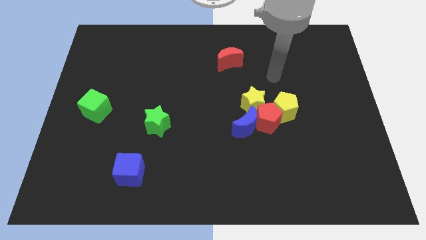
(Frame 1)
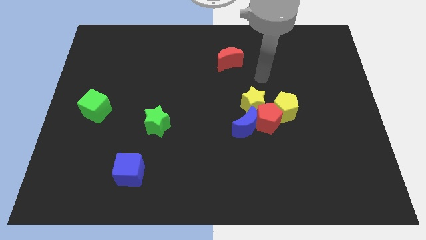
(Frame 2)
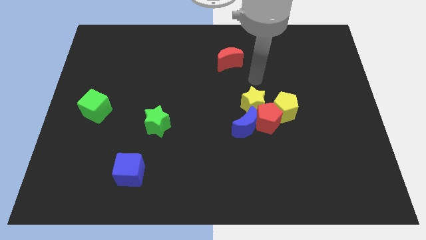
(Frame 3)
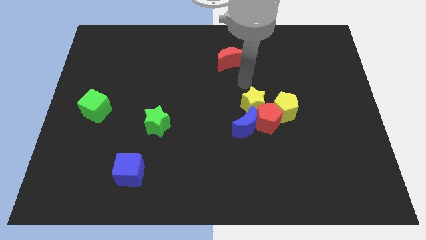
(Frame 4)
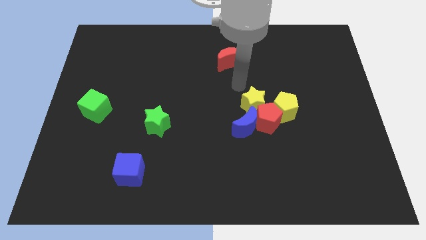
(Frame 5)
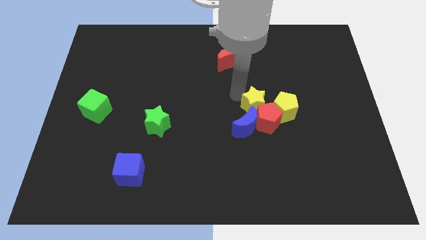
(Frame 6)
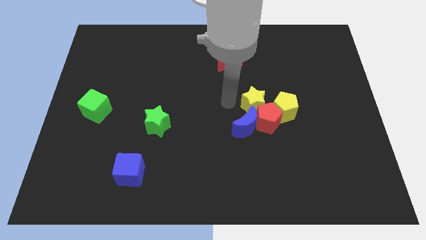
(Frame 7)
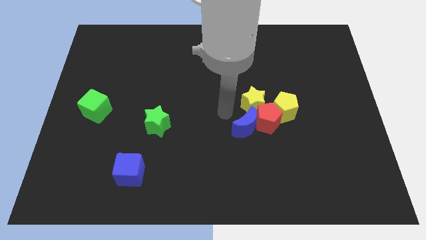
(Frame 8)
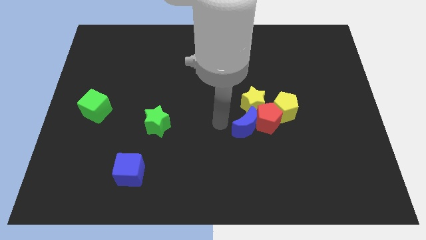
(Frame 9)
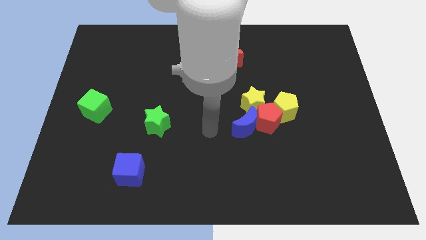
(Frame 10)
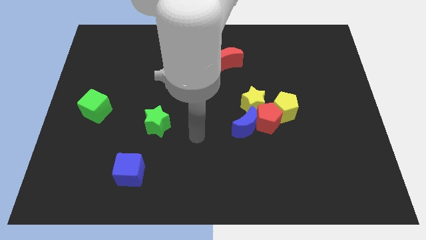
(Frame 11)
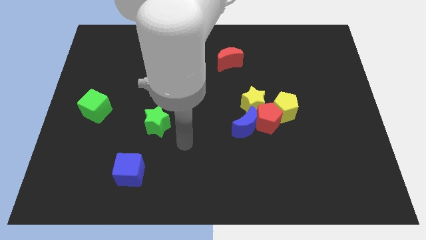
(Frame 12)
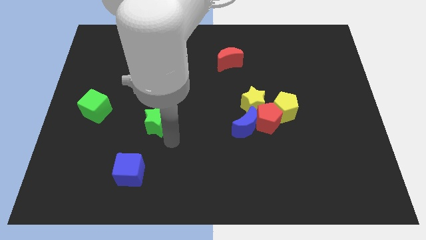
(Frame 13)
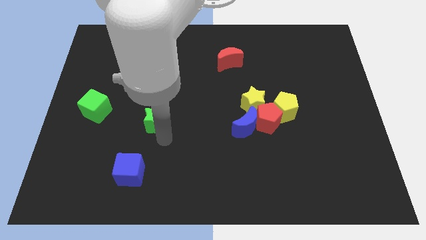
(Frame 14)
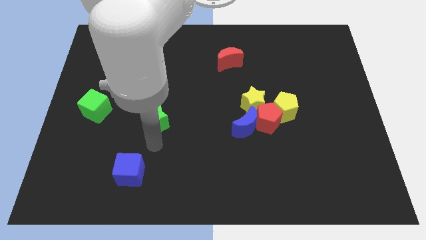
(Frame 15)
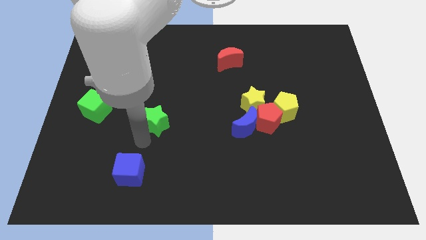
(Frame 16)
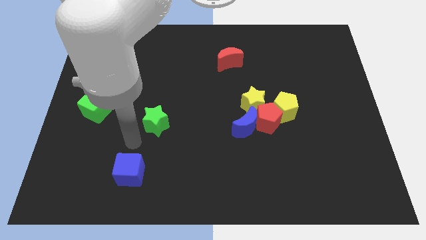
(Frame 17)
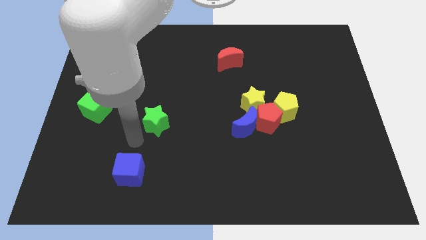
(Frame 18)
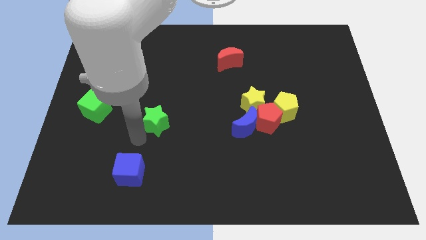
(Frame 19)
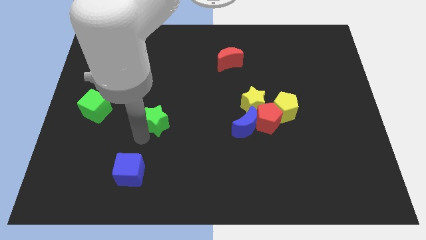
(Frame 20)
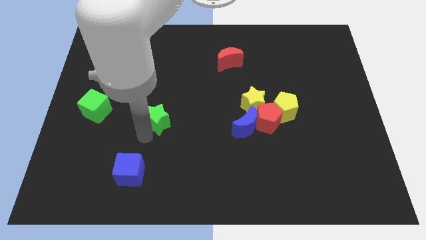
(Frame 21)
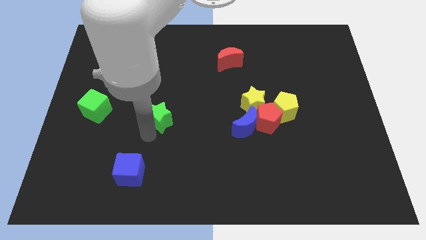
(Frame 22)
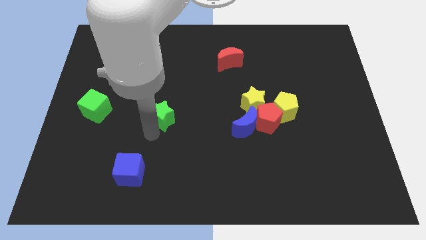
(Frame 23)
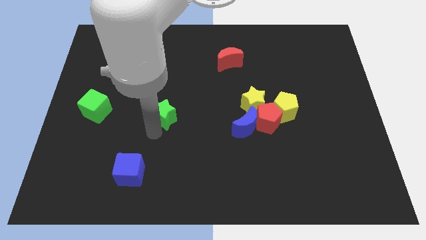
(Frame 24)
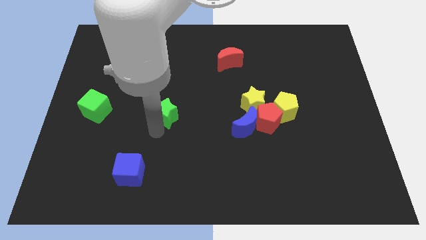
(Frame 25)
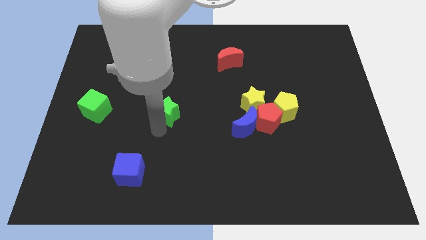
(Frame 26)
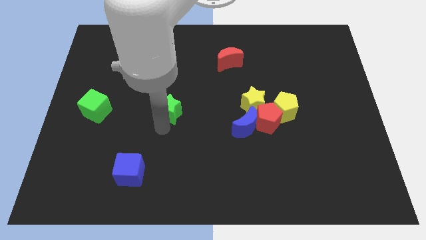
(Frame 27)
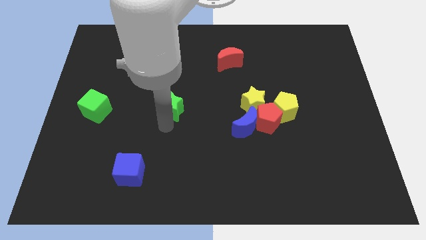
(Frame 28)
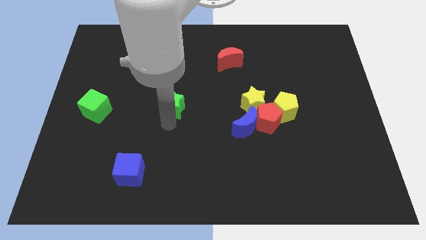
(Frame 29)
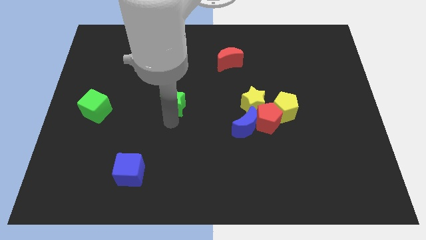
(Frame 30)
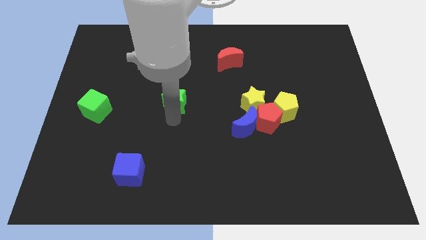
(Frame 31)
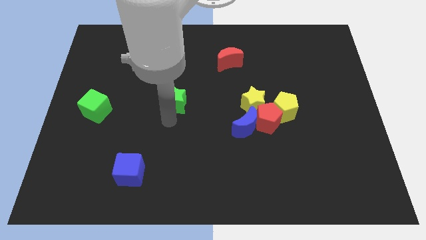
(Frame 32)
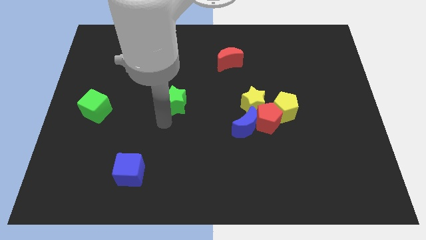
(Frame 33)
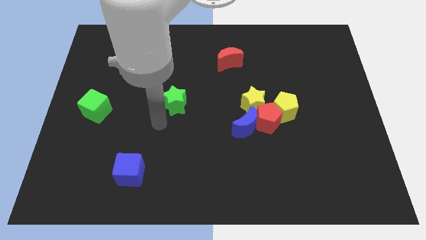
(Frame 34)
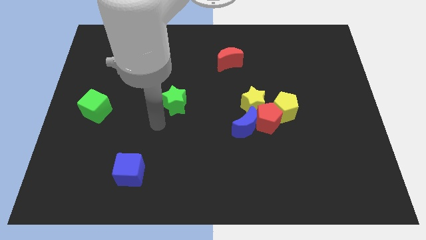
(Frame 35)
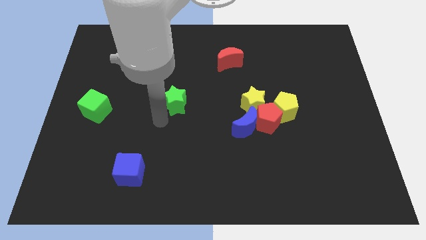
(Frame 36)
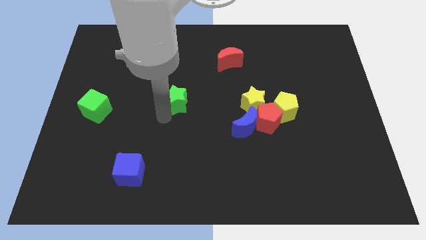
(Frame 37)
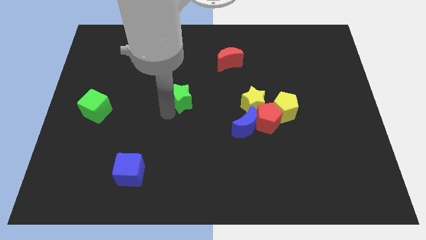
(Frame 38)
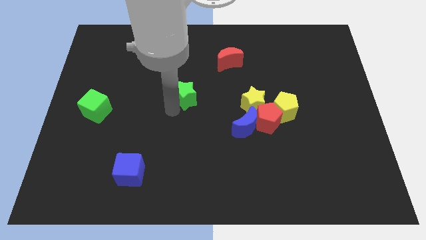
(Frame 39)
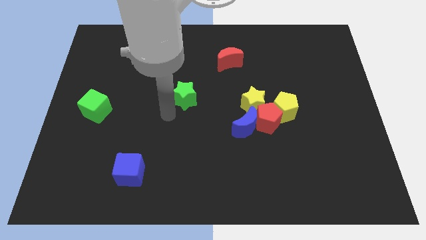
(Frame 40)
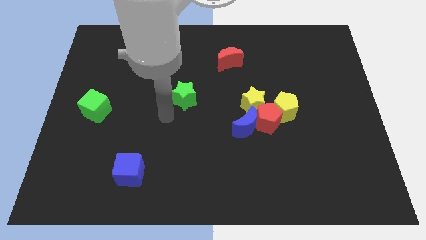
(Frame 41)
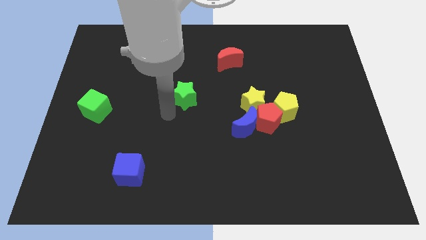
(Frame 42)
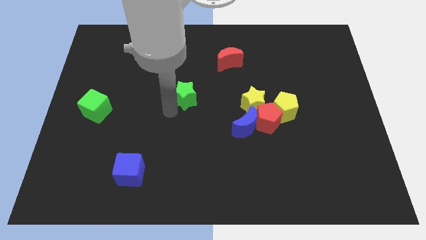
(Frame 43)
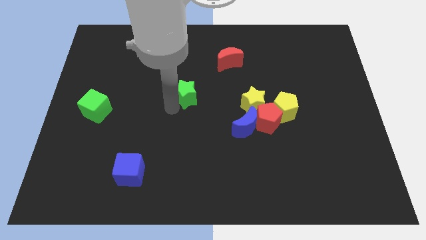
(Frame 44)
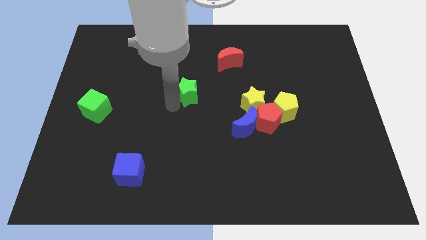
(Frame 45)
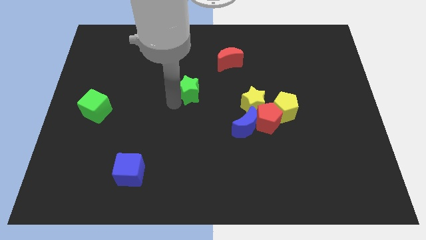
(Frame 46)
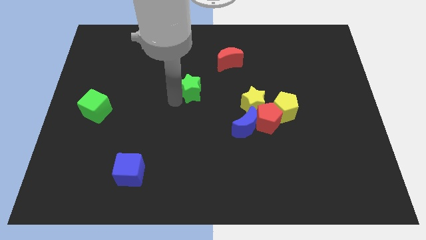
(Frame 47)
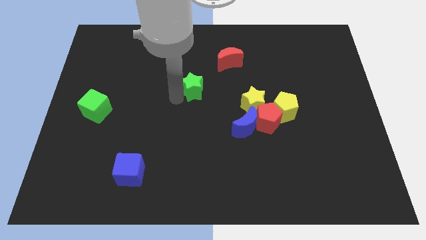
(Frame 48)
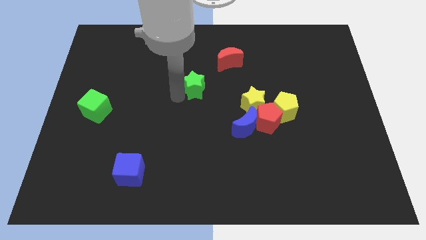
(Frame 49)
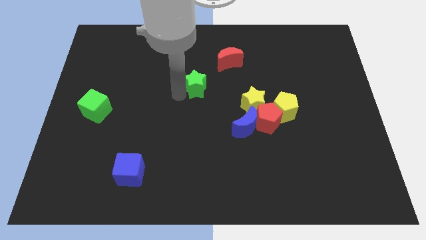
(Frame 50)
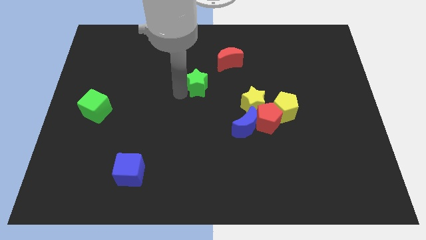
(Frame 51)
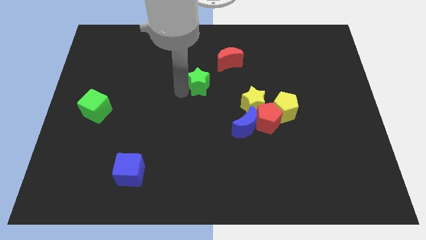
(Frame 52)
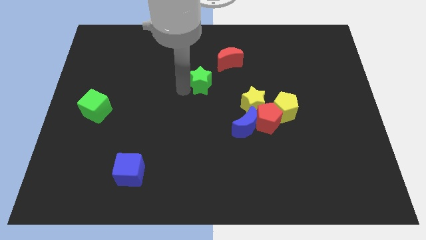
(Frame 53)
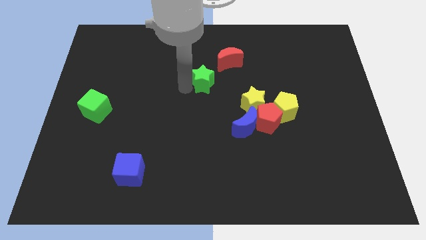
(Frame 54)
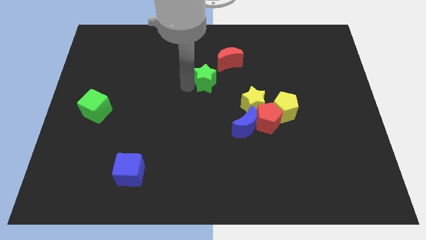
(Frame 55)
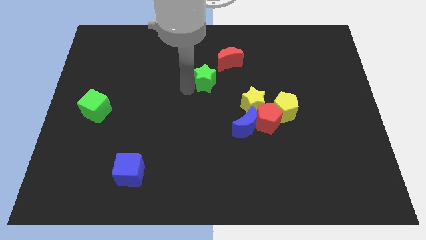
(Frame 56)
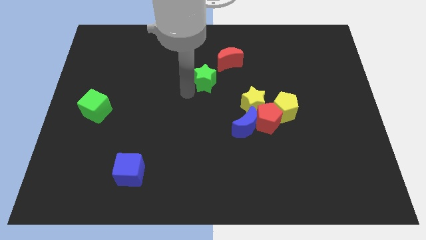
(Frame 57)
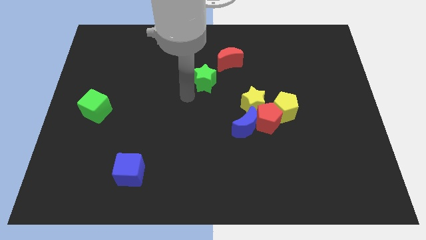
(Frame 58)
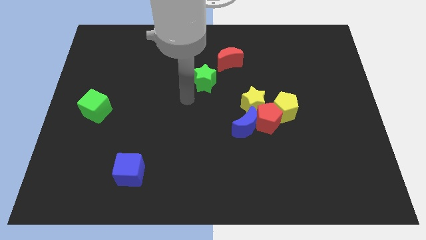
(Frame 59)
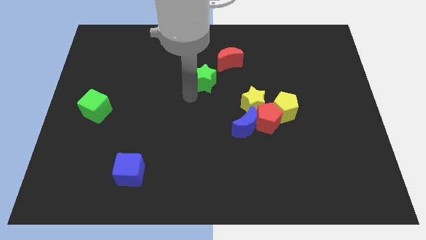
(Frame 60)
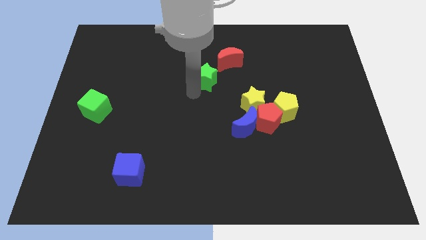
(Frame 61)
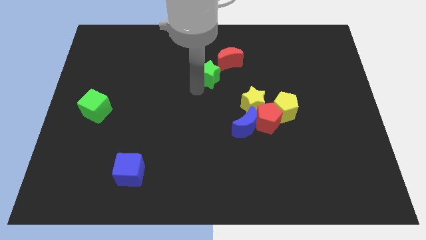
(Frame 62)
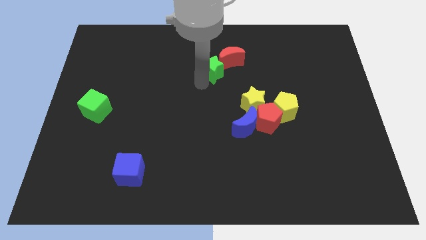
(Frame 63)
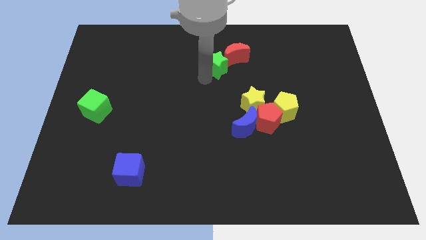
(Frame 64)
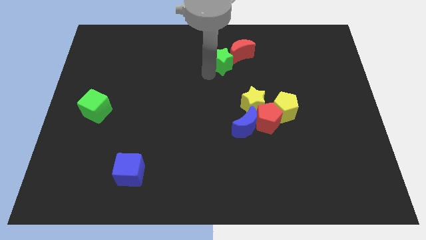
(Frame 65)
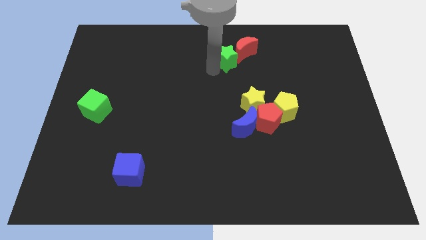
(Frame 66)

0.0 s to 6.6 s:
move the green star close to the red moon

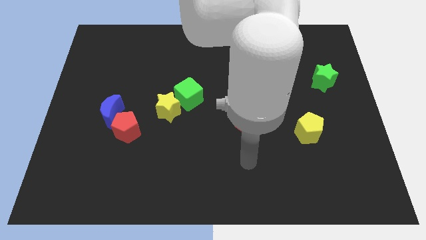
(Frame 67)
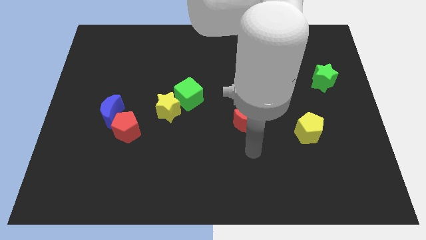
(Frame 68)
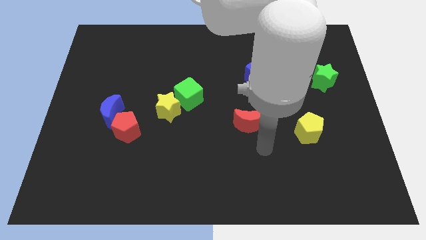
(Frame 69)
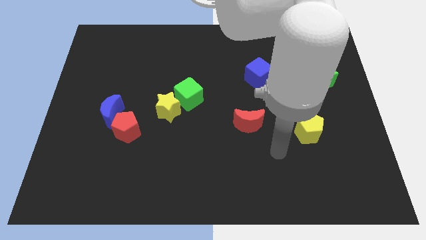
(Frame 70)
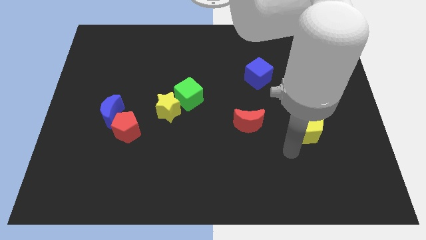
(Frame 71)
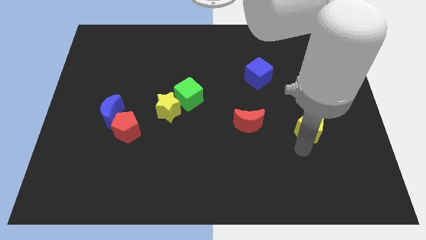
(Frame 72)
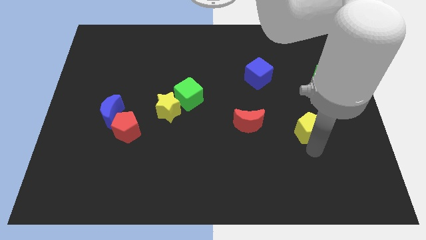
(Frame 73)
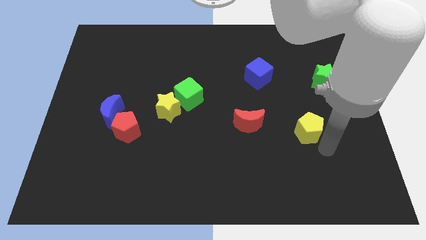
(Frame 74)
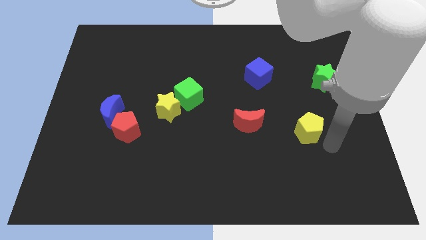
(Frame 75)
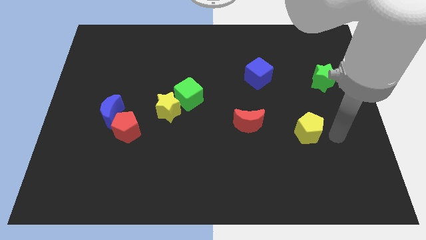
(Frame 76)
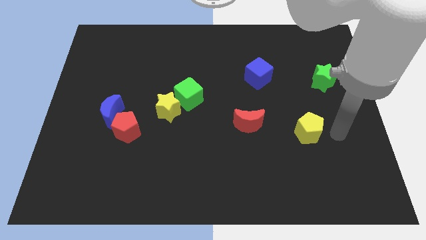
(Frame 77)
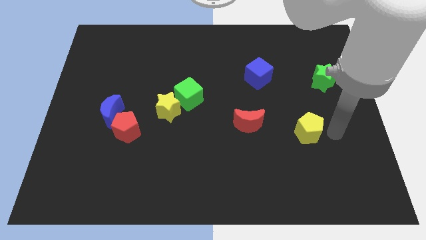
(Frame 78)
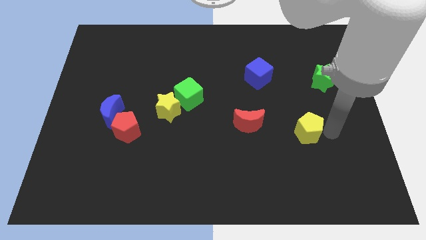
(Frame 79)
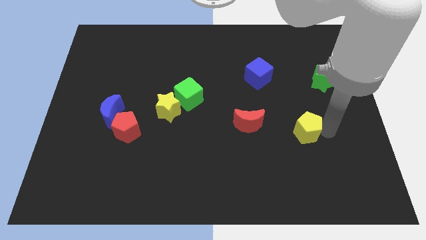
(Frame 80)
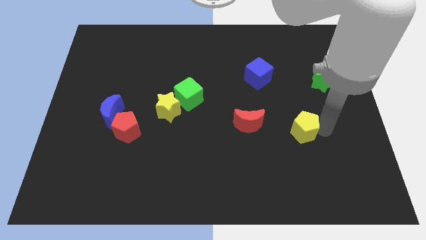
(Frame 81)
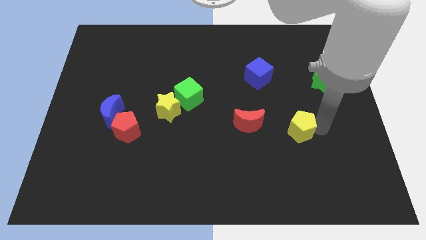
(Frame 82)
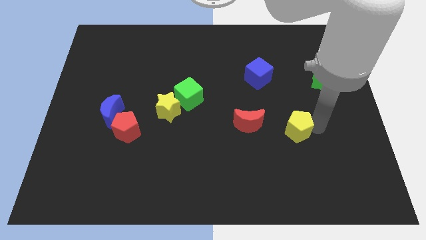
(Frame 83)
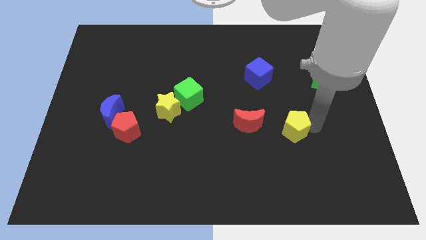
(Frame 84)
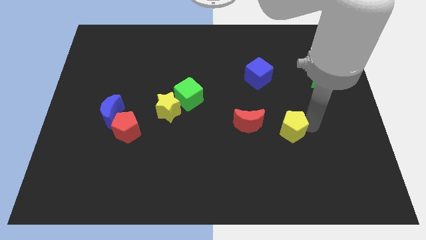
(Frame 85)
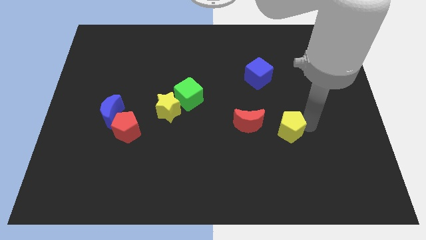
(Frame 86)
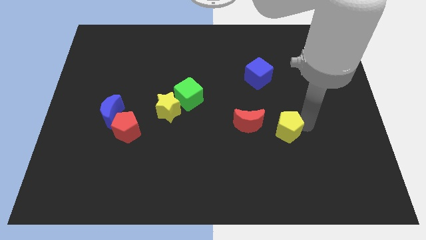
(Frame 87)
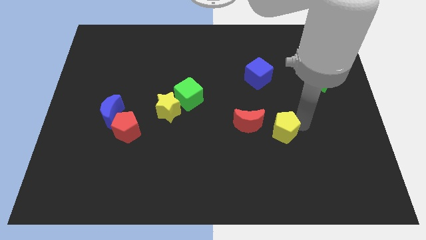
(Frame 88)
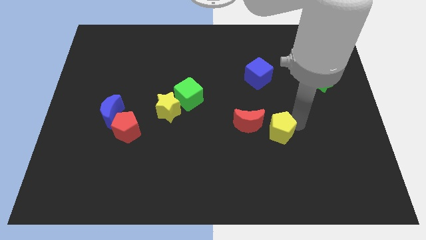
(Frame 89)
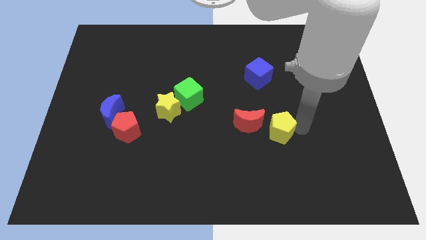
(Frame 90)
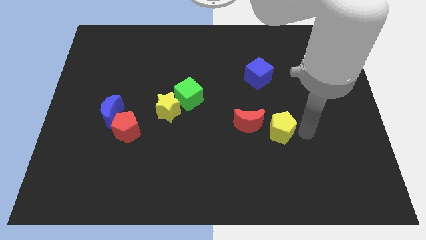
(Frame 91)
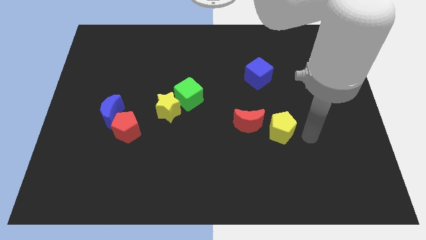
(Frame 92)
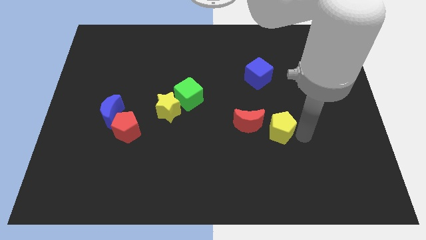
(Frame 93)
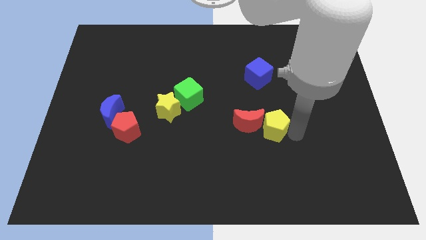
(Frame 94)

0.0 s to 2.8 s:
put the yellow pentagon next to the red moon
